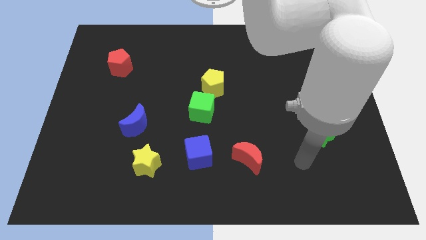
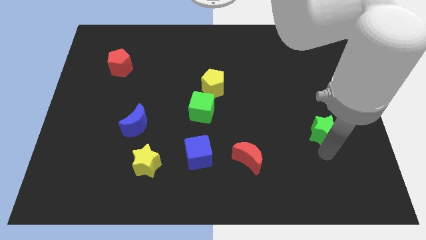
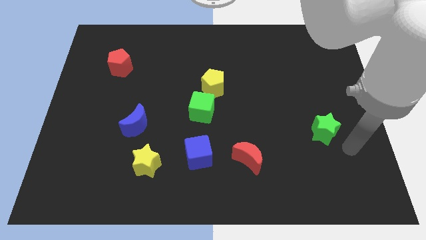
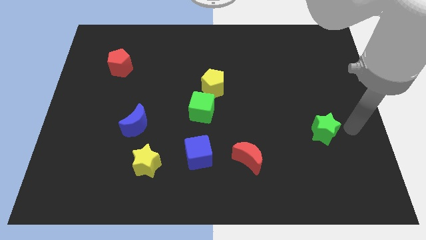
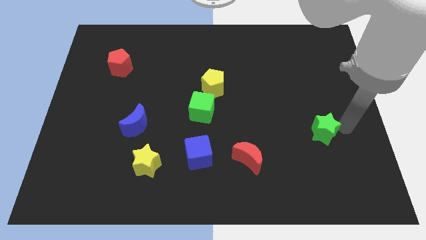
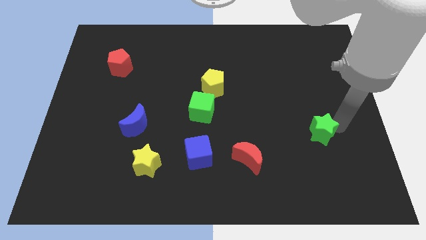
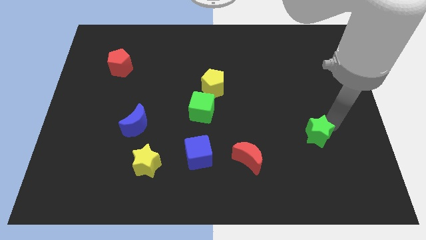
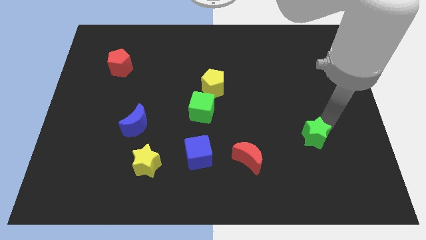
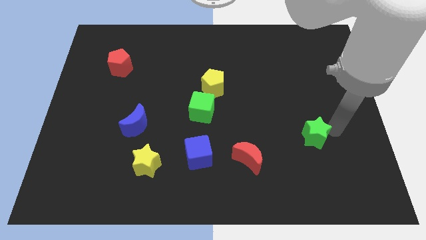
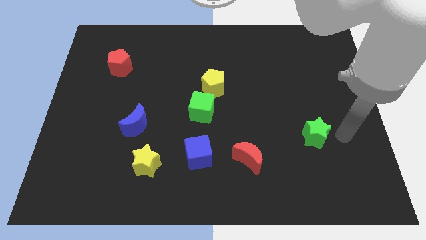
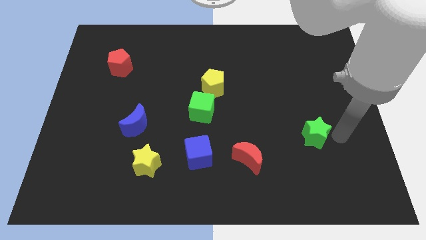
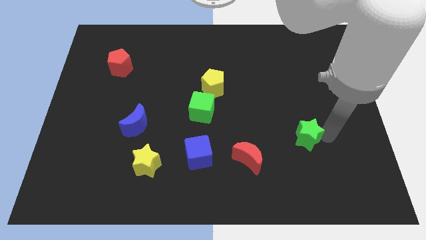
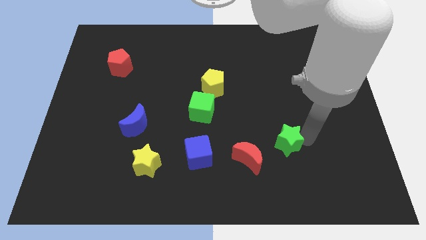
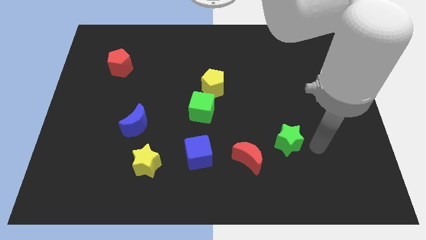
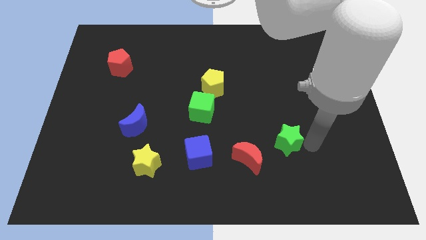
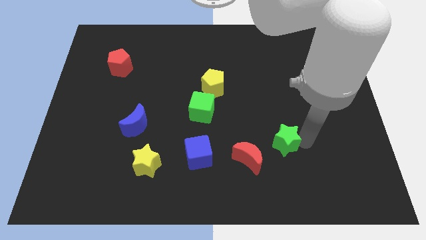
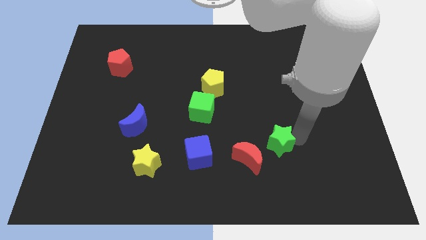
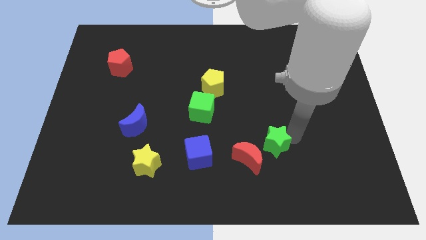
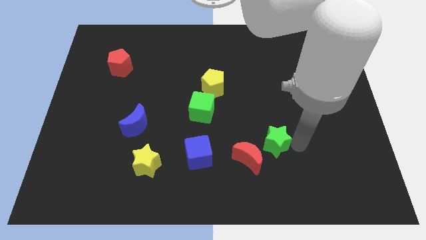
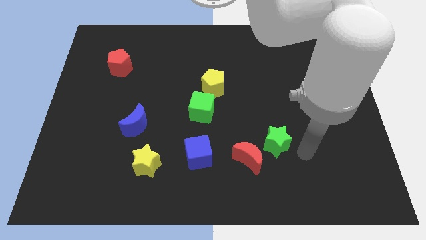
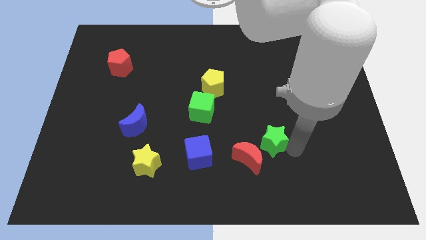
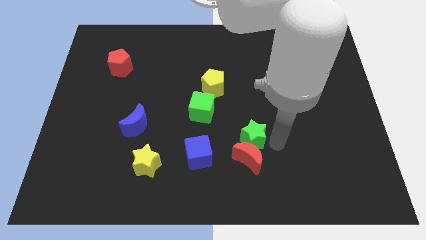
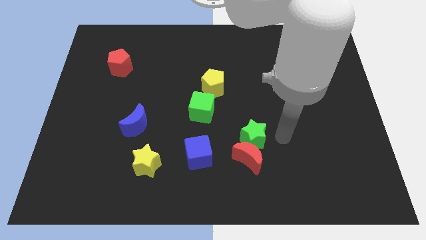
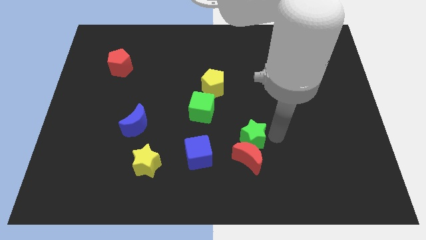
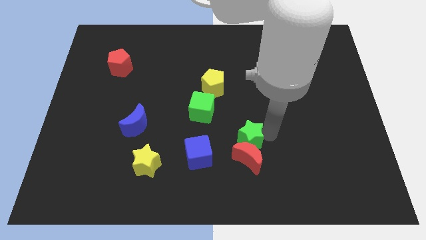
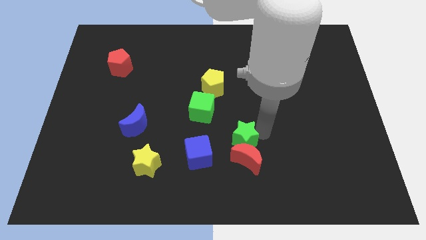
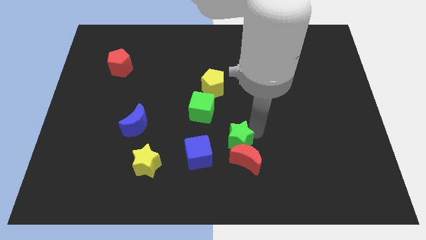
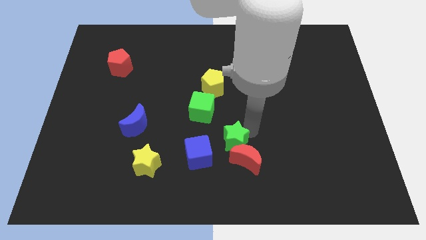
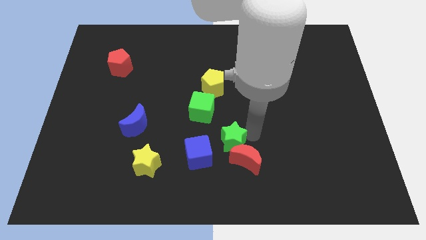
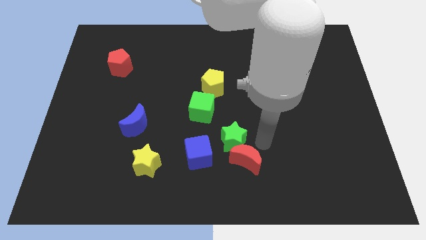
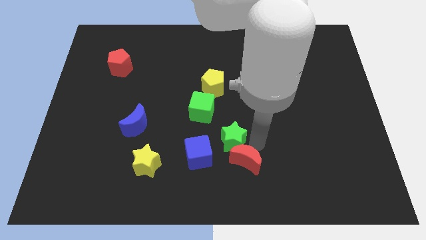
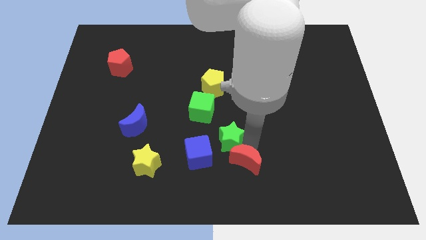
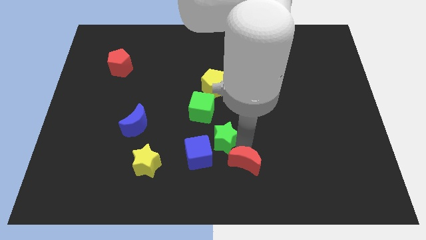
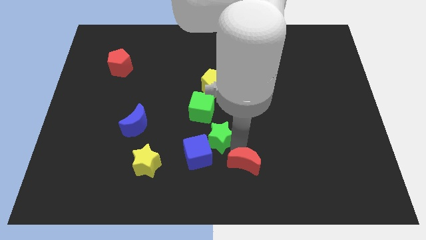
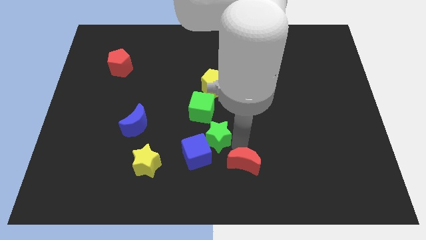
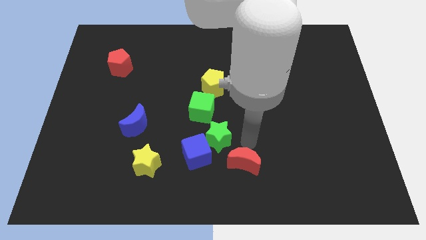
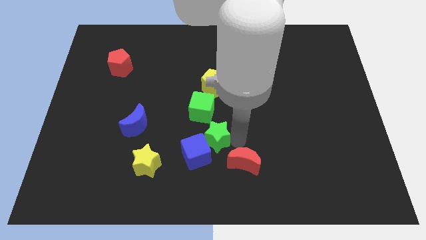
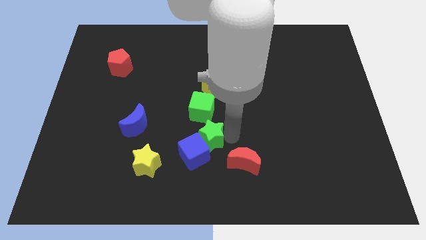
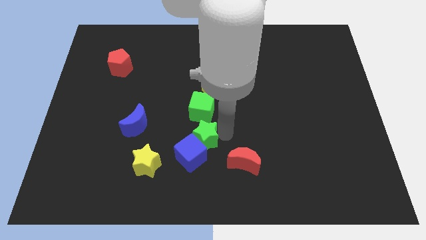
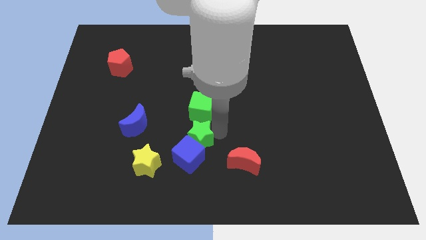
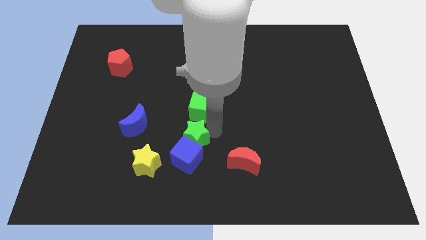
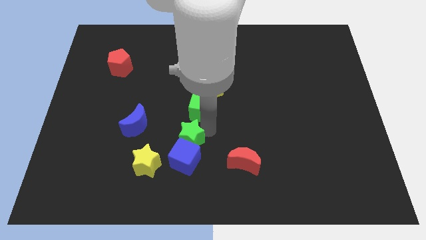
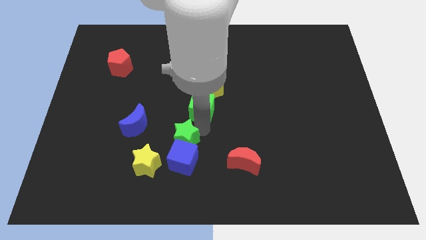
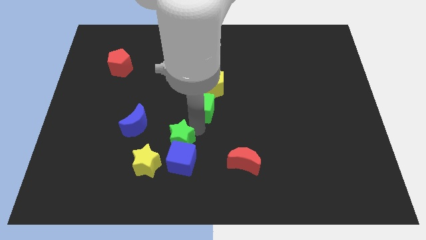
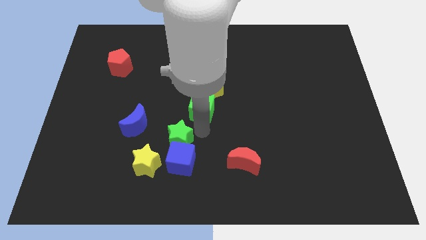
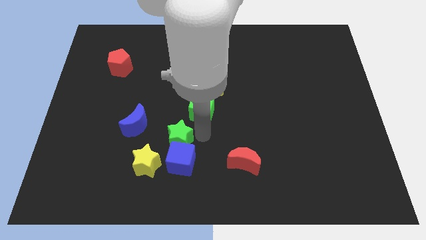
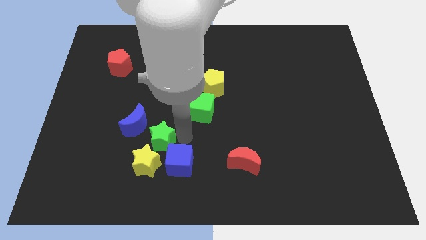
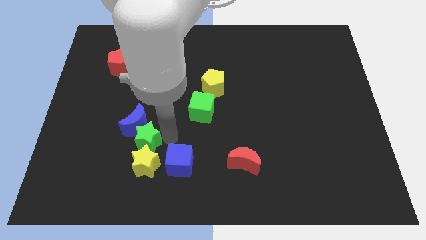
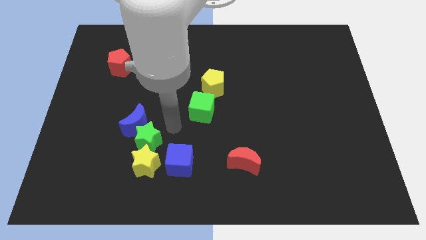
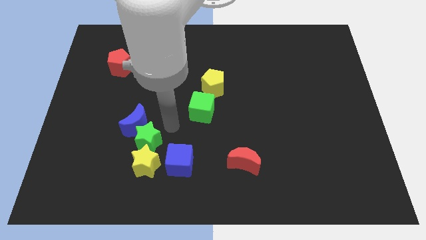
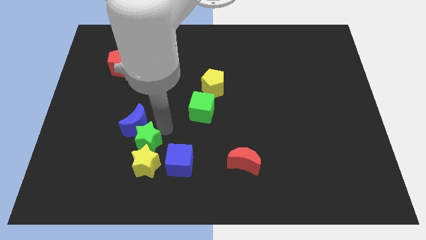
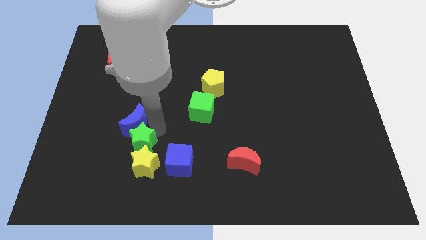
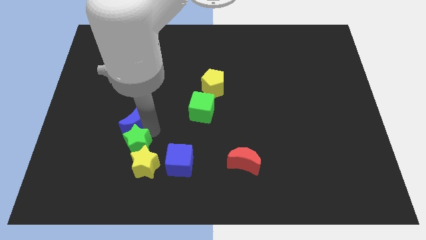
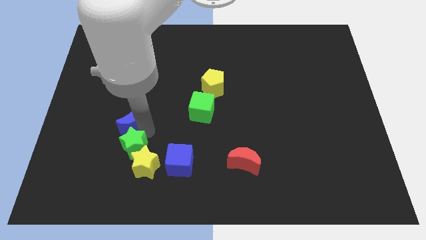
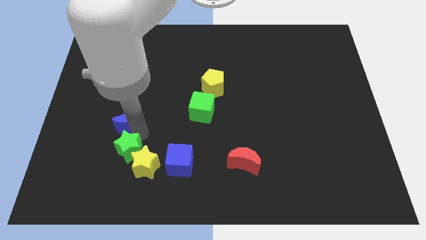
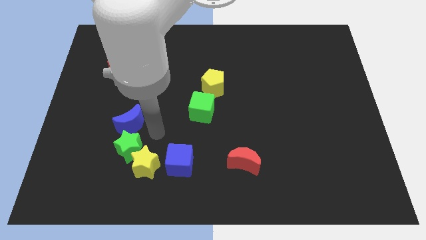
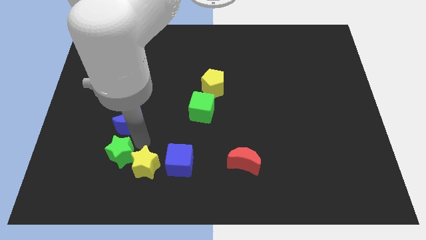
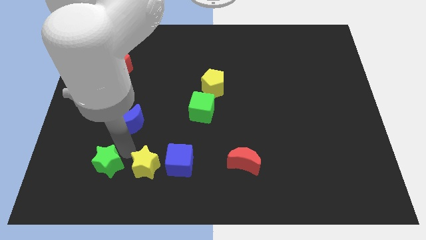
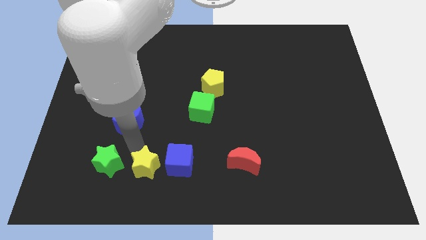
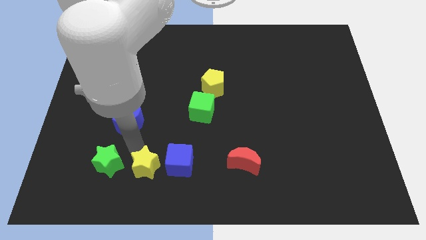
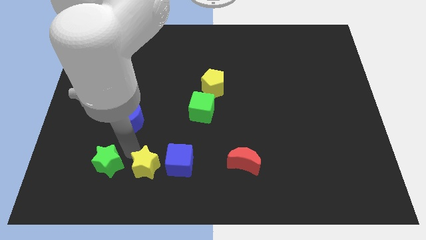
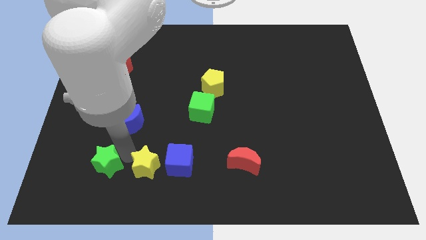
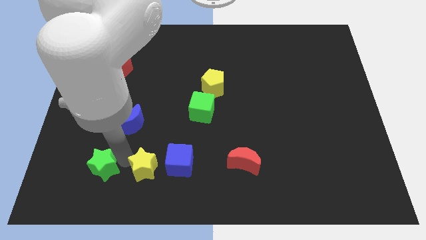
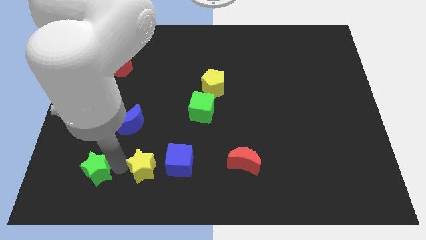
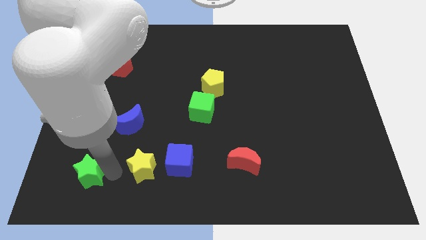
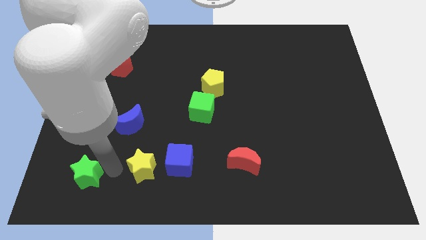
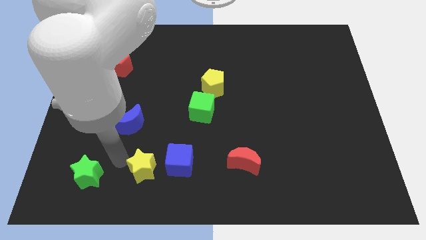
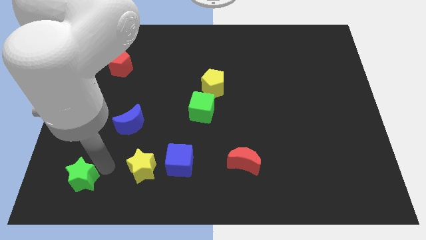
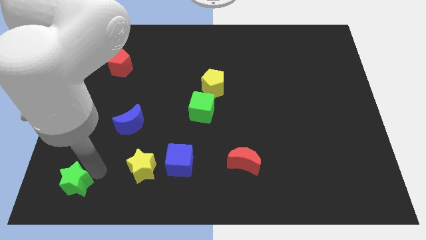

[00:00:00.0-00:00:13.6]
put the green star to the bottom left
